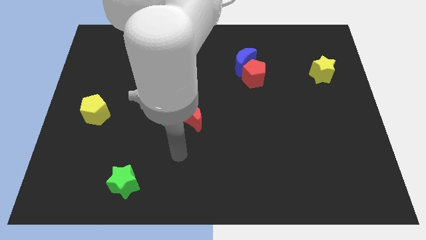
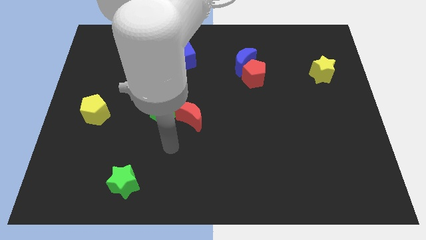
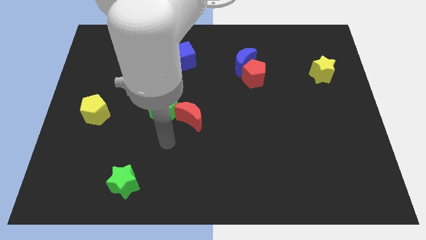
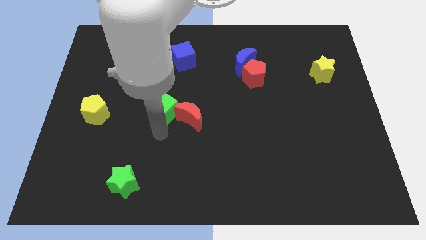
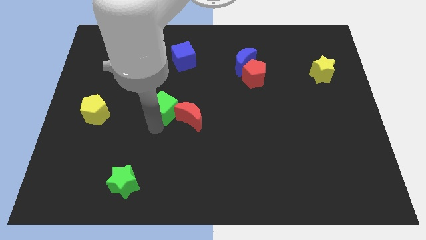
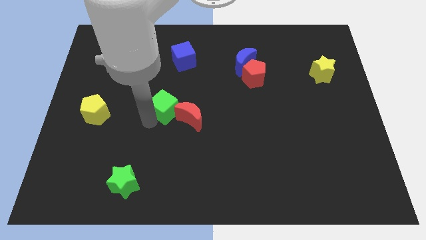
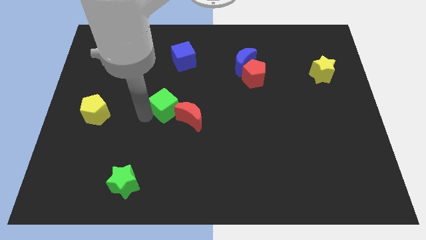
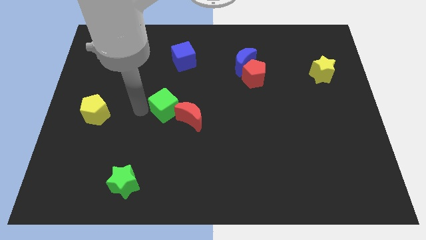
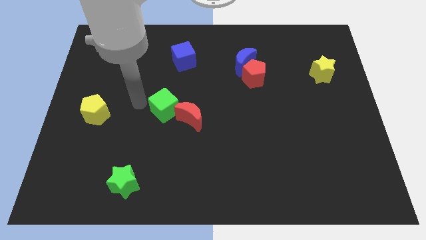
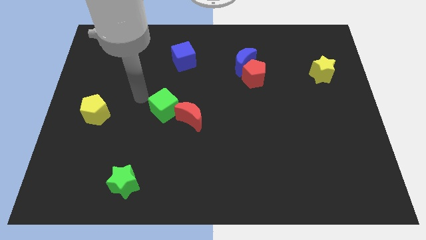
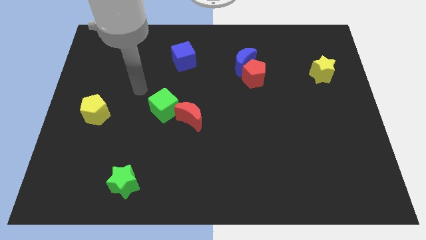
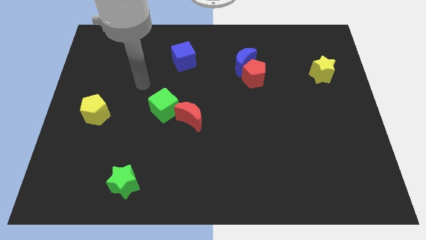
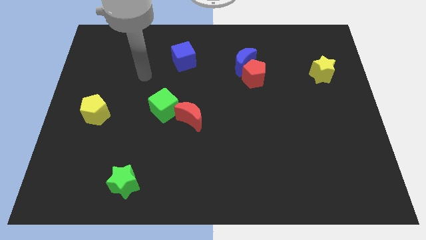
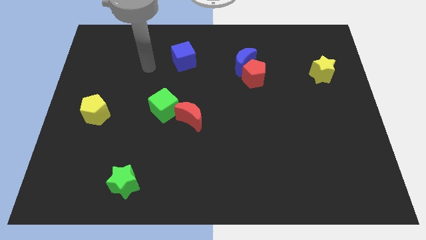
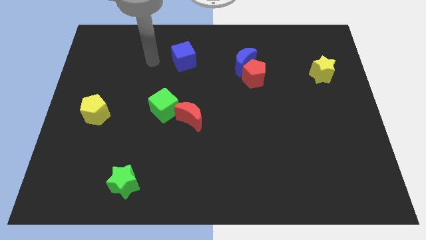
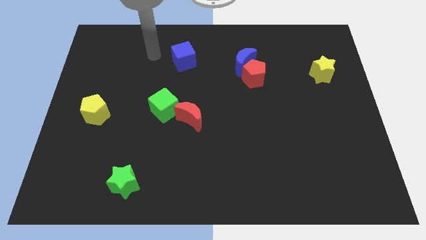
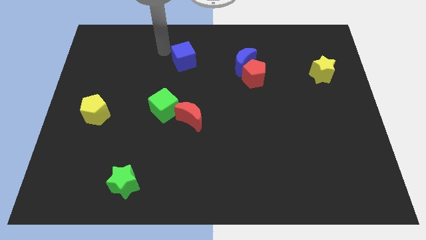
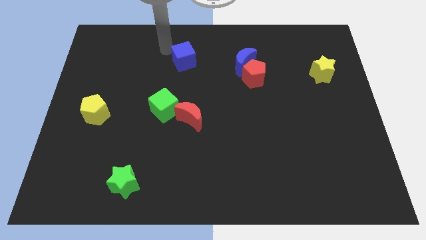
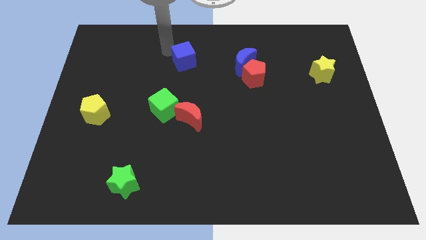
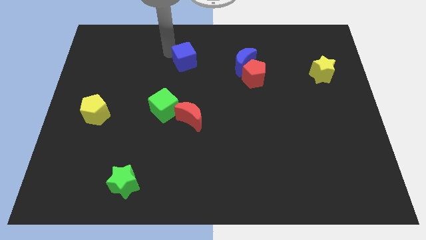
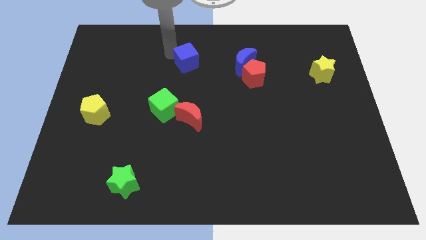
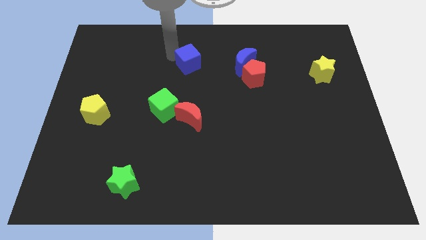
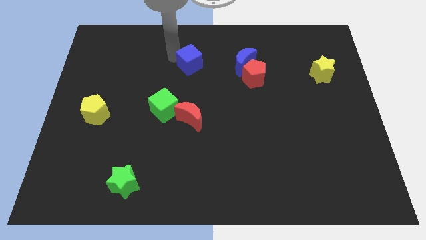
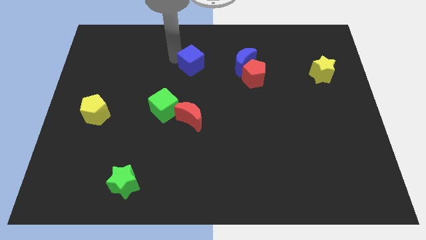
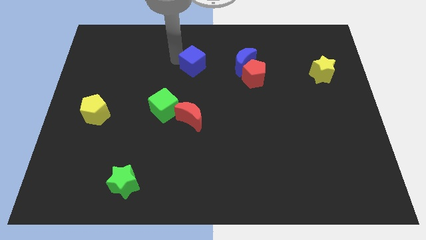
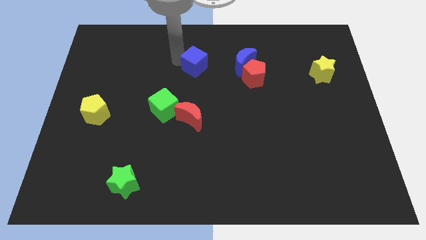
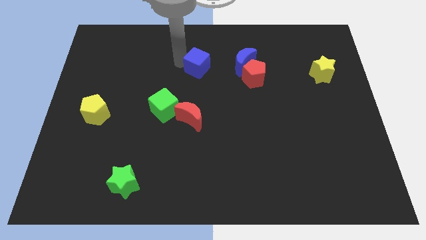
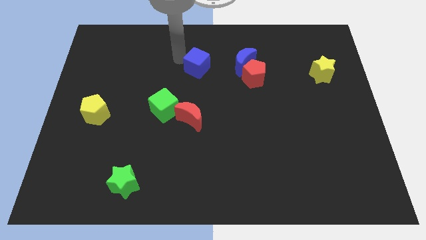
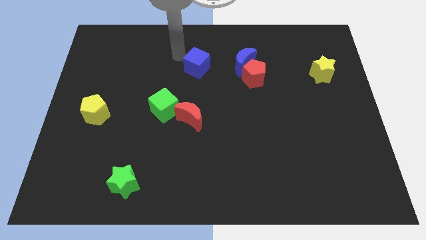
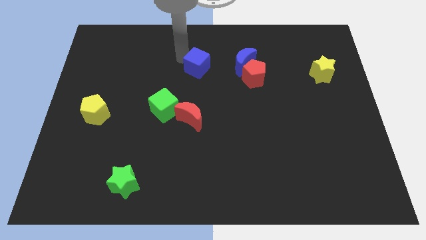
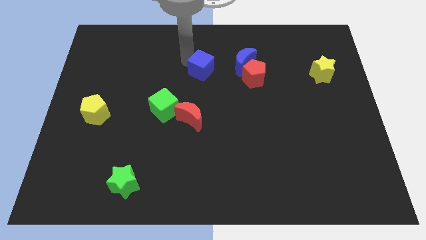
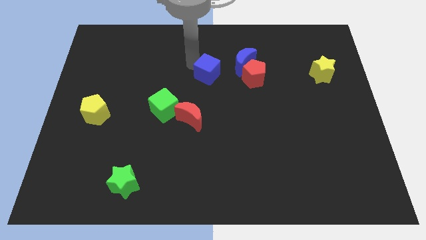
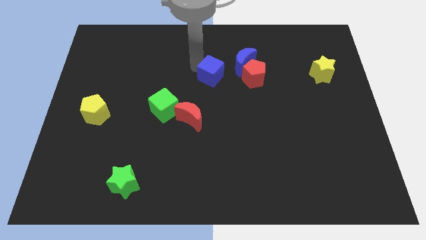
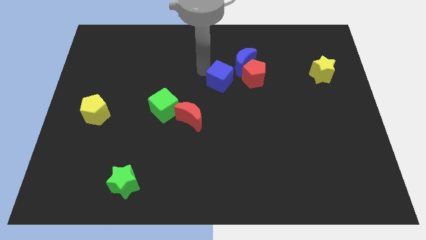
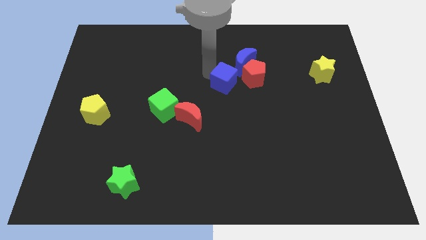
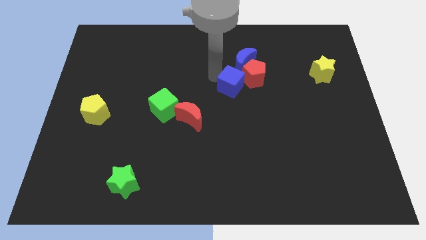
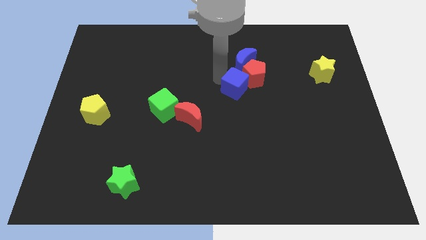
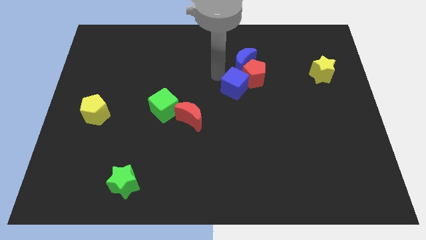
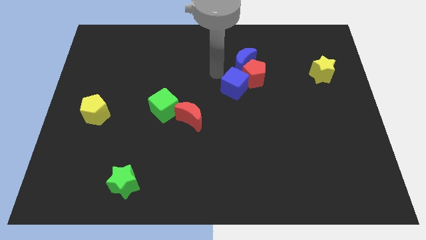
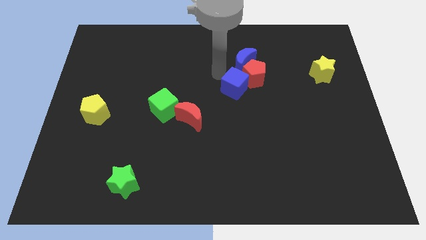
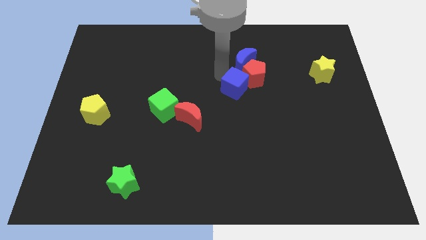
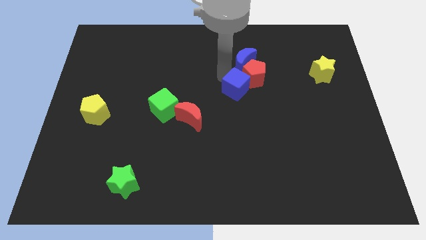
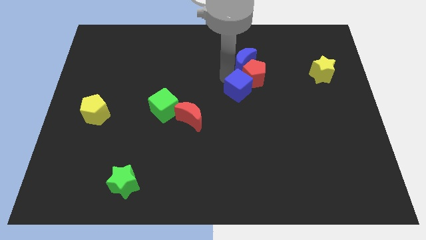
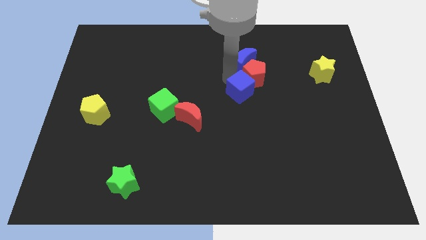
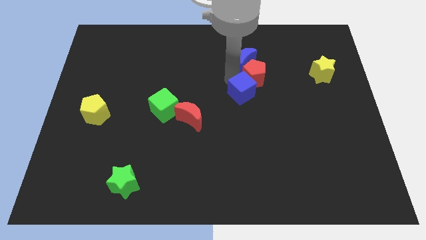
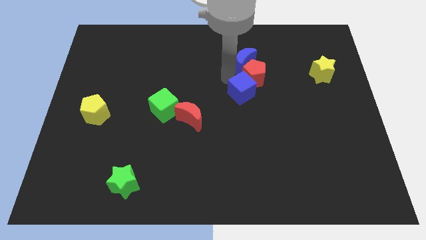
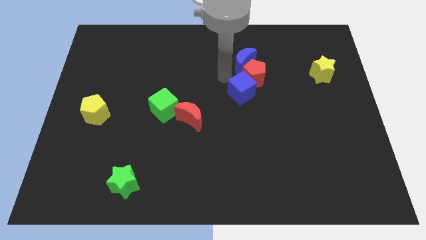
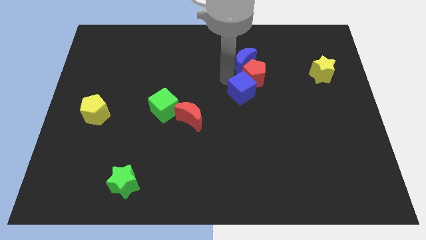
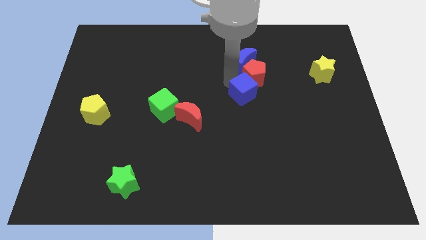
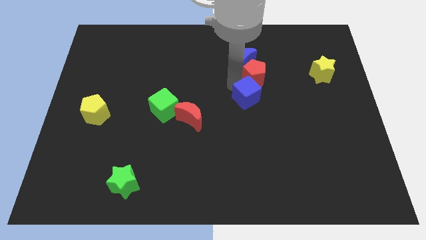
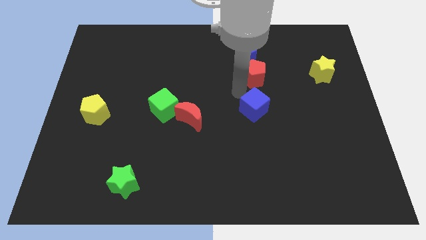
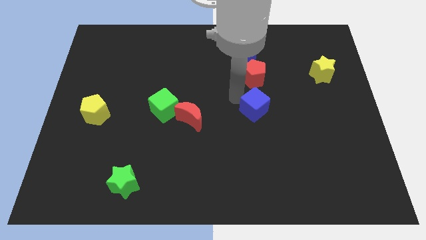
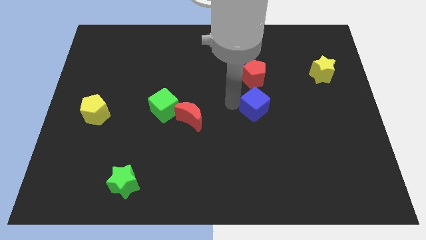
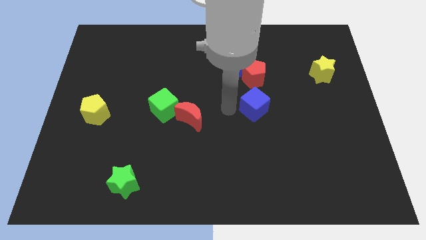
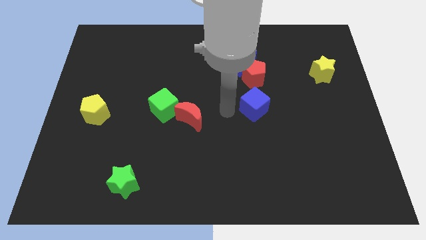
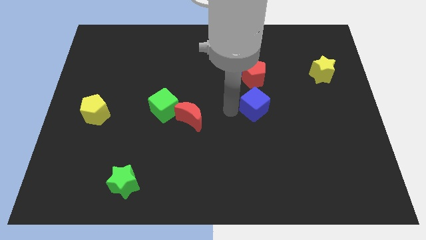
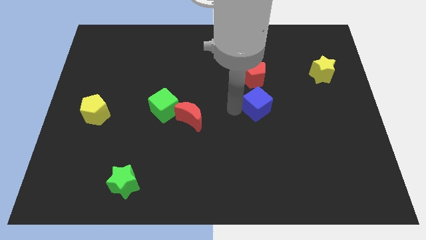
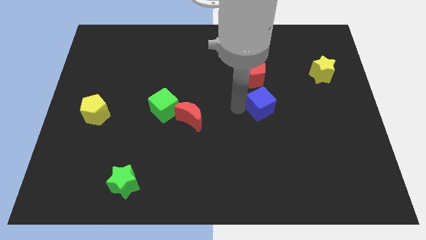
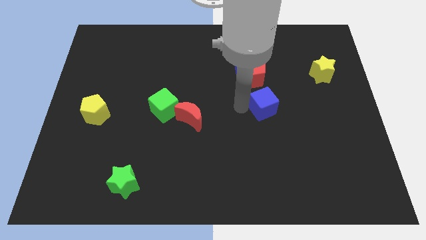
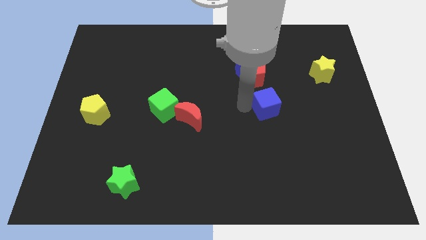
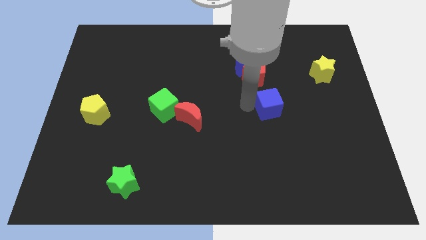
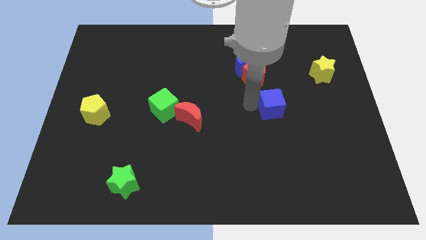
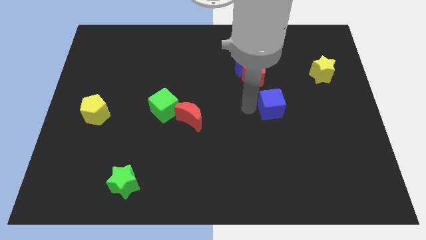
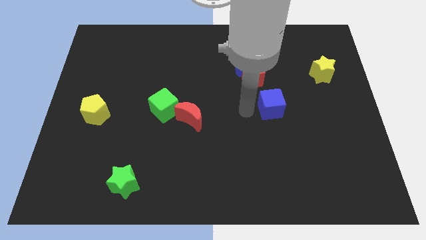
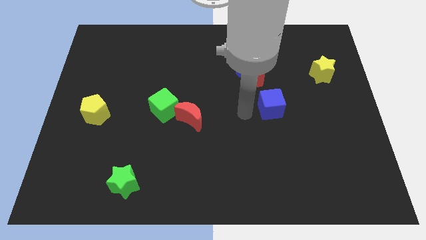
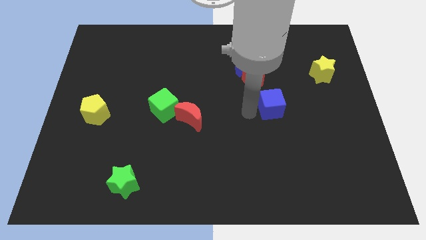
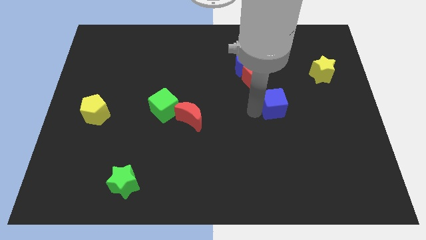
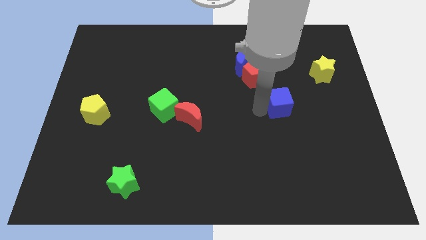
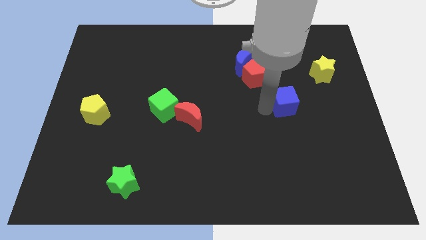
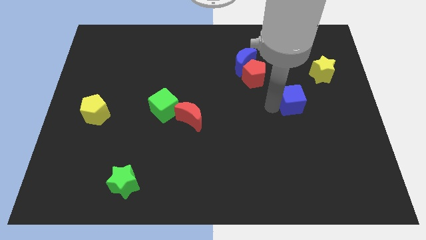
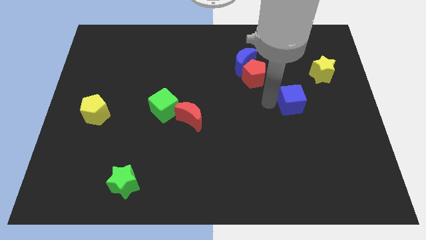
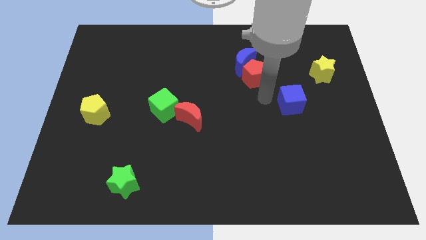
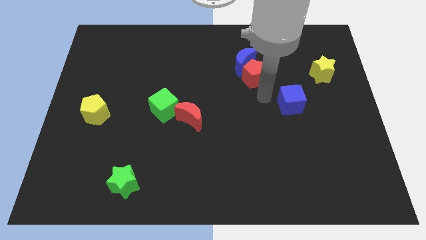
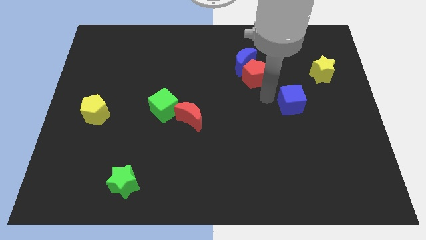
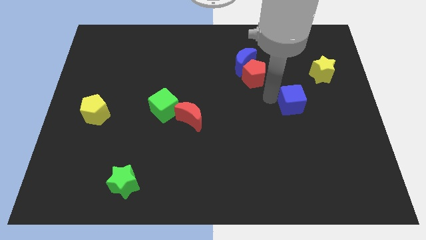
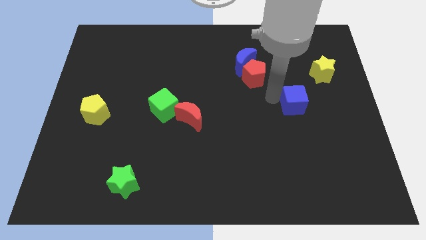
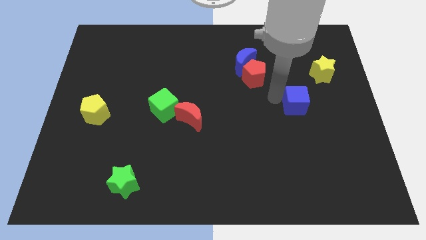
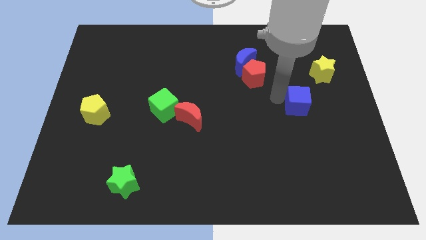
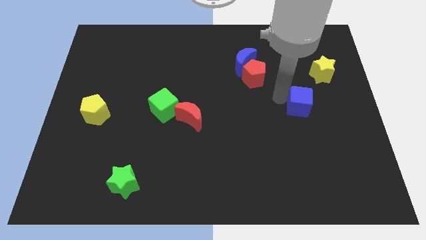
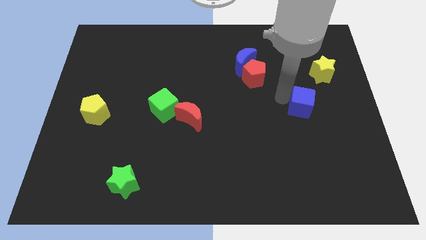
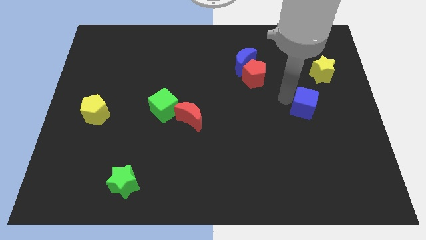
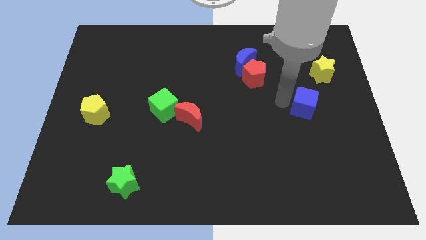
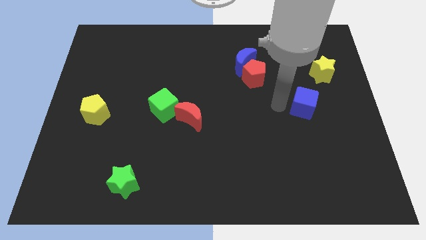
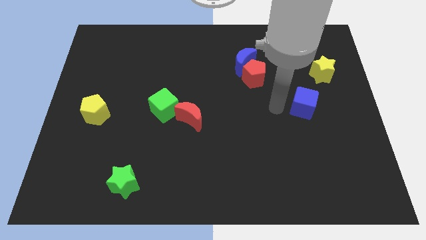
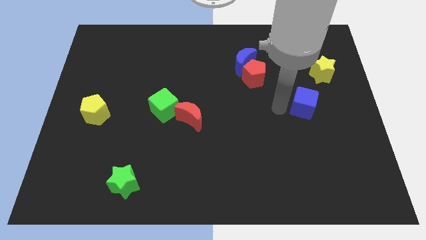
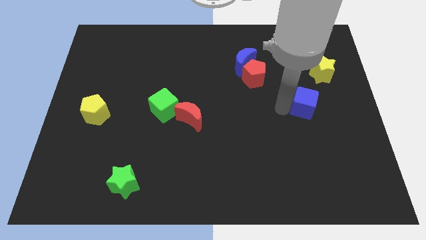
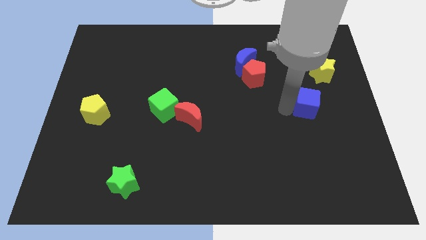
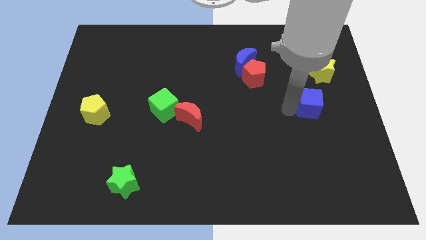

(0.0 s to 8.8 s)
slide the blue cube to the bottom side of the yellow star
